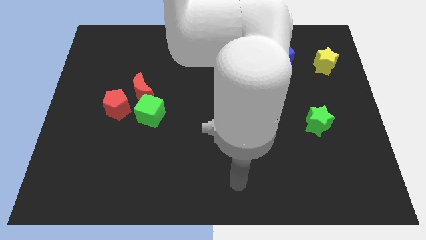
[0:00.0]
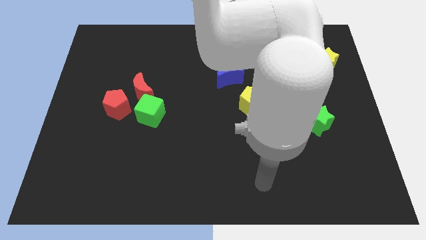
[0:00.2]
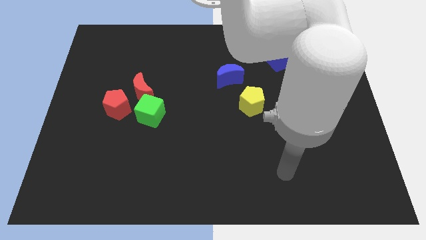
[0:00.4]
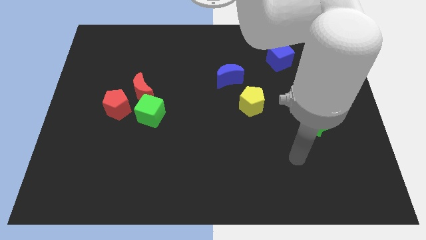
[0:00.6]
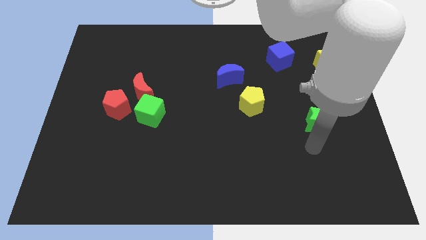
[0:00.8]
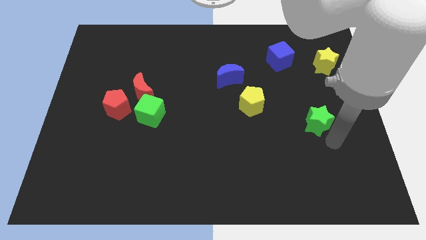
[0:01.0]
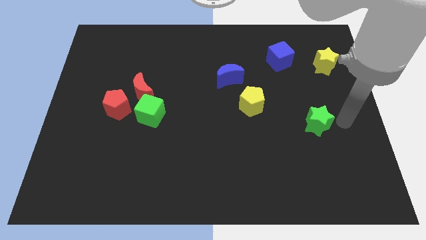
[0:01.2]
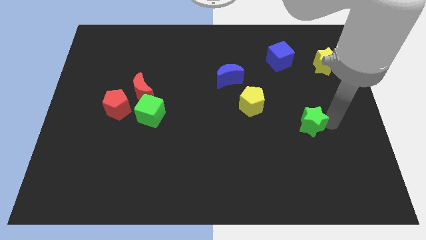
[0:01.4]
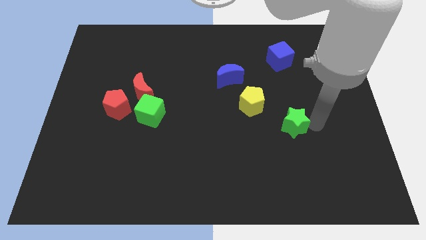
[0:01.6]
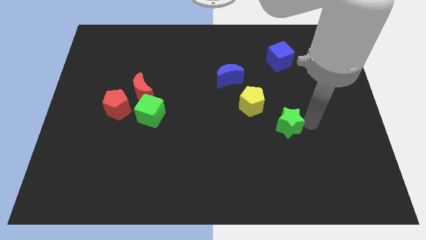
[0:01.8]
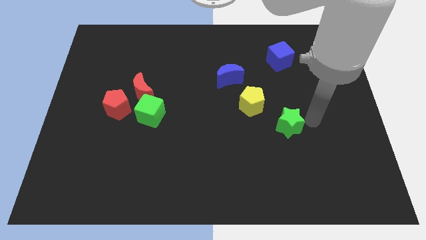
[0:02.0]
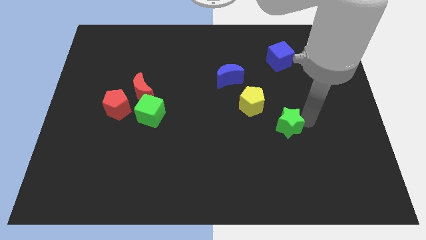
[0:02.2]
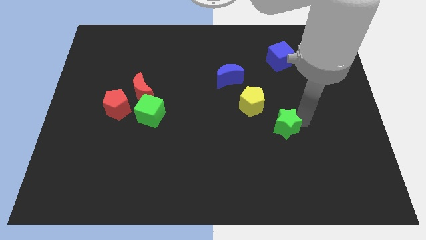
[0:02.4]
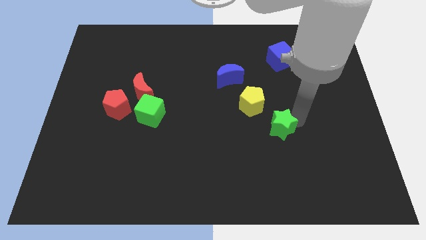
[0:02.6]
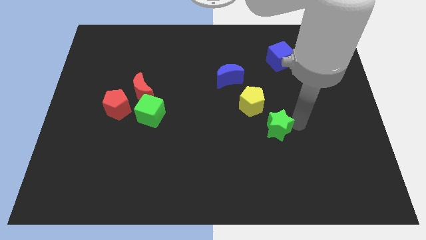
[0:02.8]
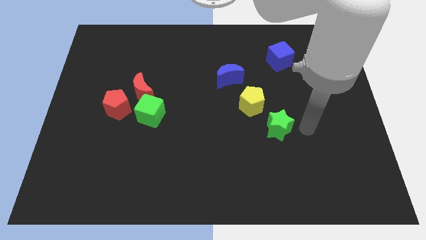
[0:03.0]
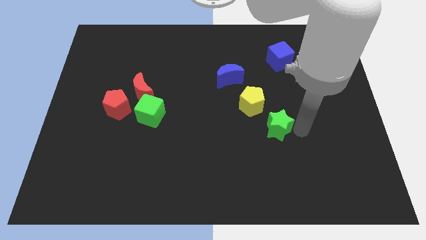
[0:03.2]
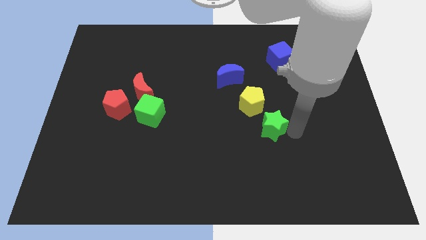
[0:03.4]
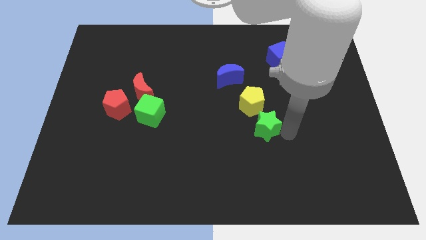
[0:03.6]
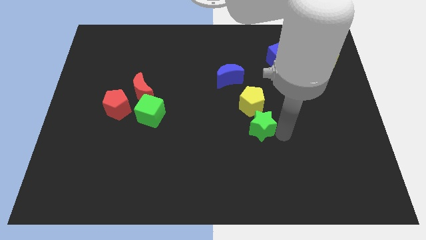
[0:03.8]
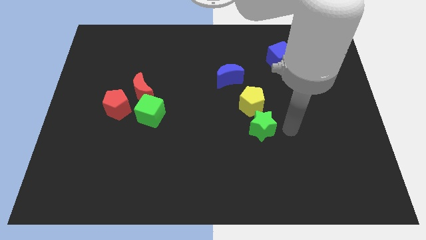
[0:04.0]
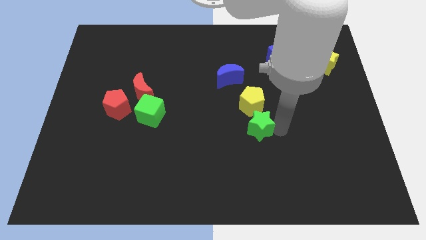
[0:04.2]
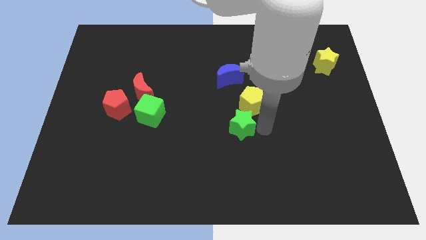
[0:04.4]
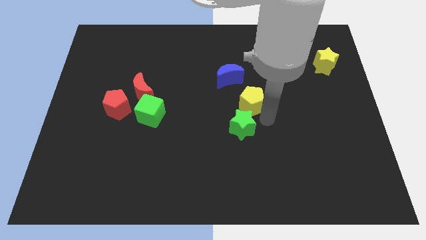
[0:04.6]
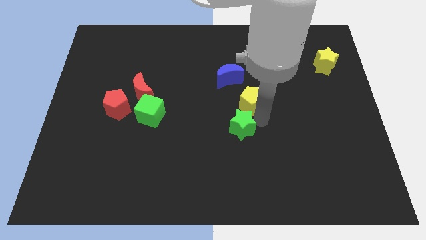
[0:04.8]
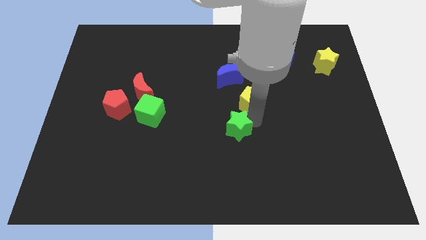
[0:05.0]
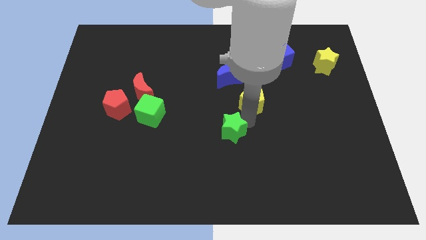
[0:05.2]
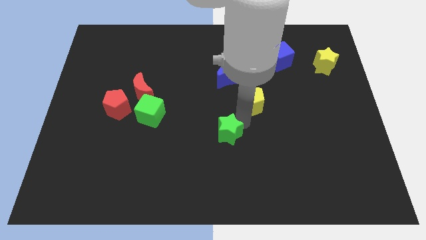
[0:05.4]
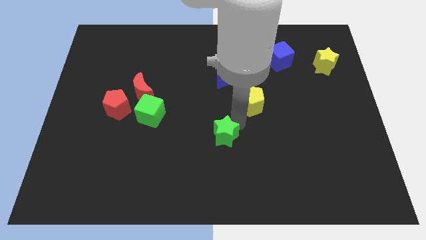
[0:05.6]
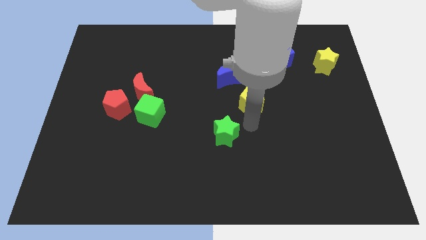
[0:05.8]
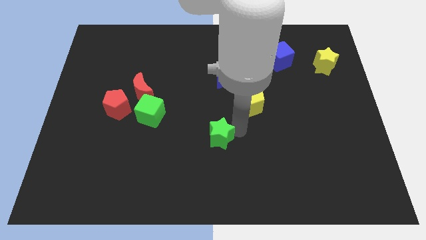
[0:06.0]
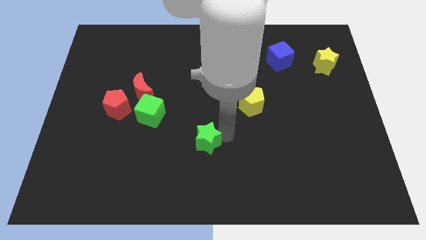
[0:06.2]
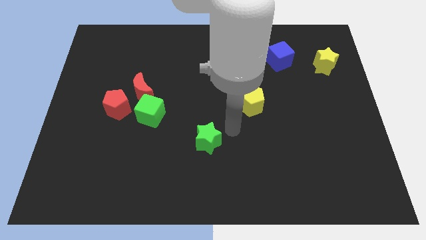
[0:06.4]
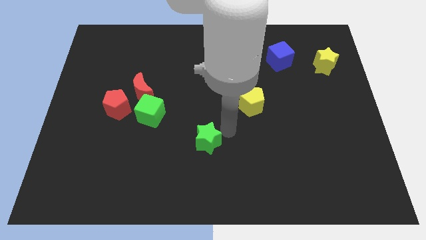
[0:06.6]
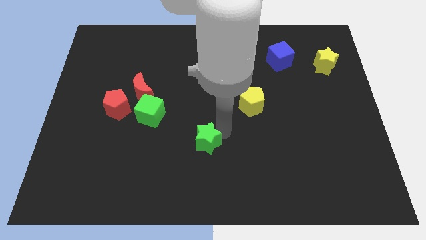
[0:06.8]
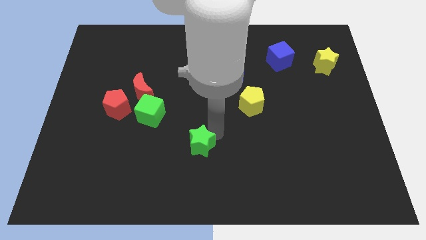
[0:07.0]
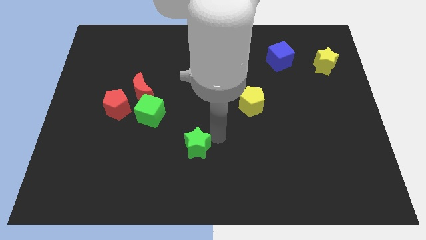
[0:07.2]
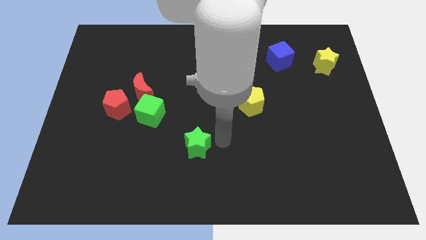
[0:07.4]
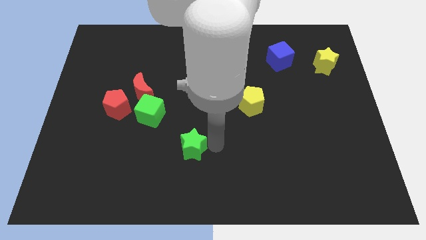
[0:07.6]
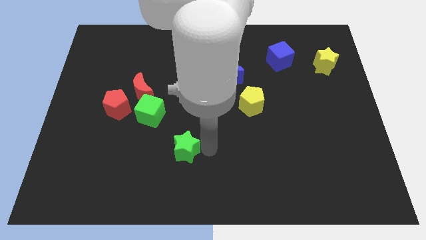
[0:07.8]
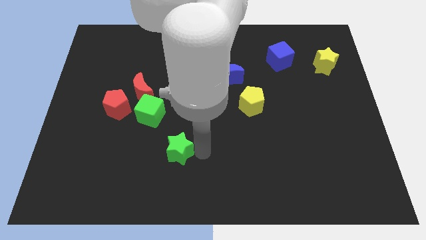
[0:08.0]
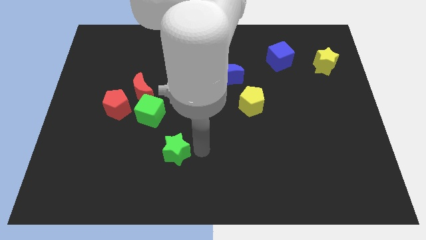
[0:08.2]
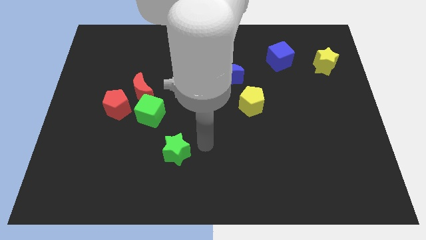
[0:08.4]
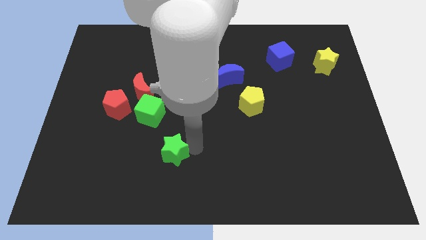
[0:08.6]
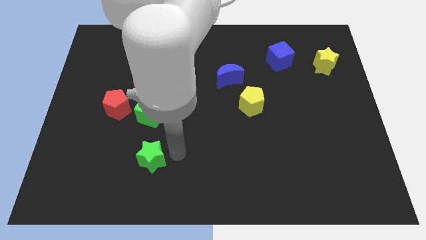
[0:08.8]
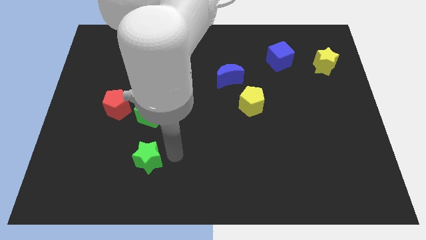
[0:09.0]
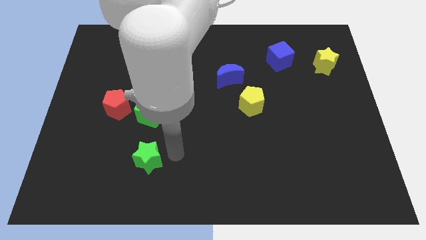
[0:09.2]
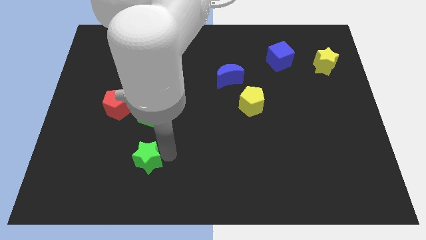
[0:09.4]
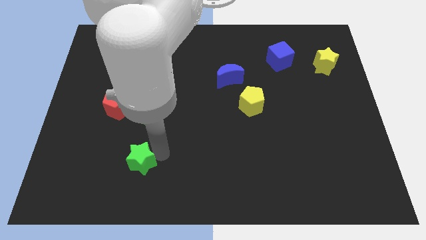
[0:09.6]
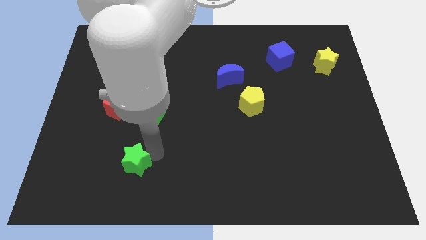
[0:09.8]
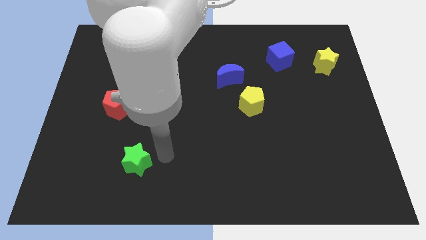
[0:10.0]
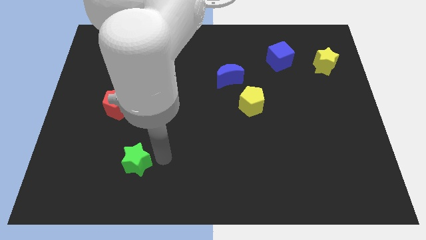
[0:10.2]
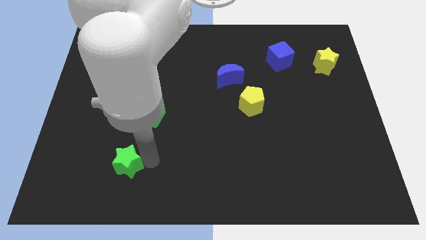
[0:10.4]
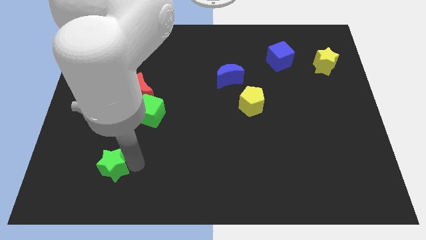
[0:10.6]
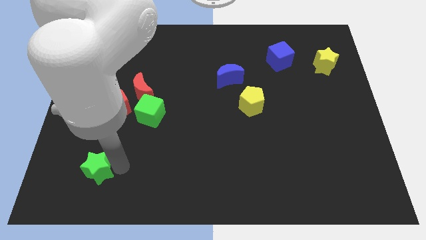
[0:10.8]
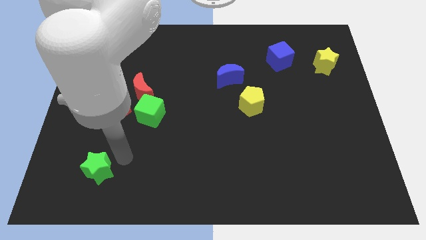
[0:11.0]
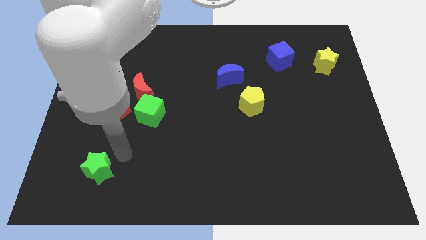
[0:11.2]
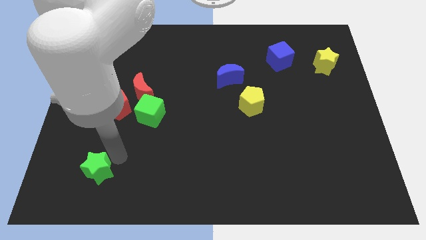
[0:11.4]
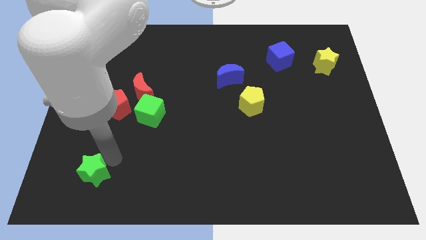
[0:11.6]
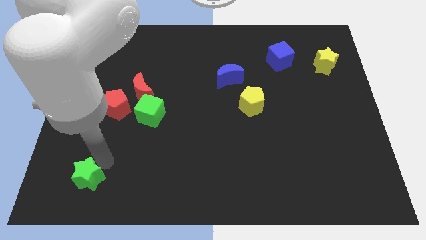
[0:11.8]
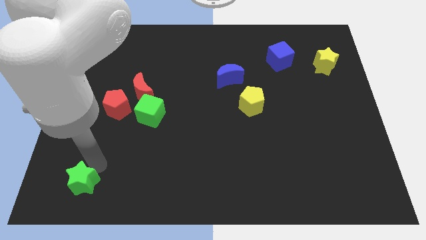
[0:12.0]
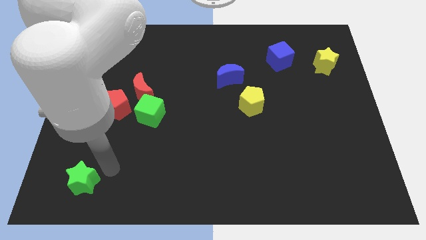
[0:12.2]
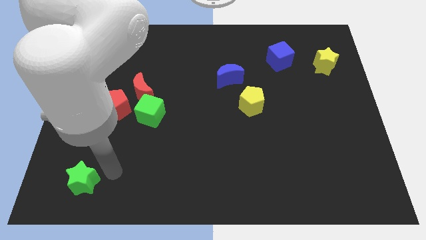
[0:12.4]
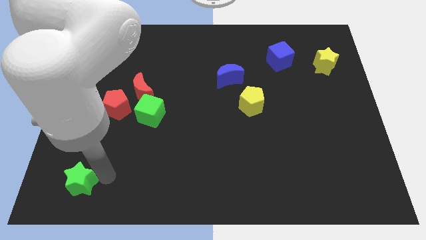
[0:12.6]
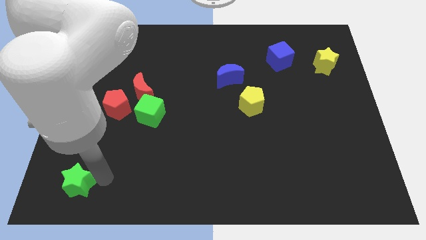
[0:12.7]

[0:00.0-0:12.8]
move the green star to the bottom left corner
